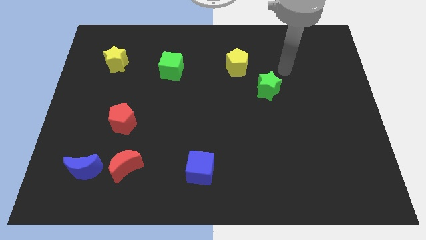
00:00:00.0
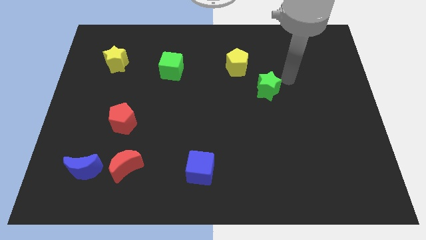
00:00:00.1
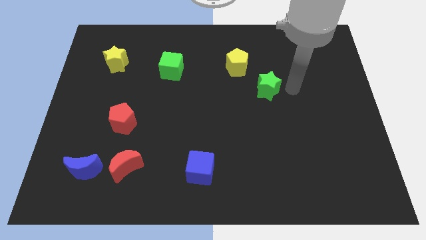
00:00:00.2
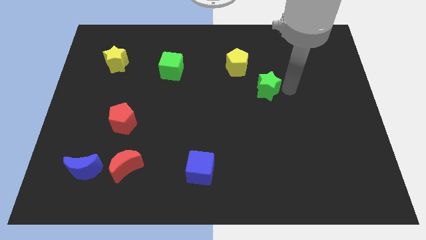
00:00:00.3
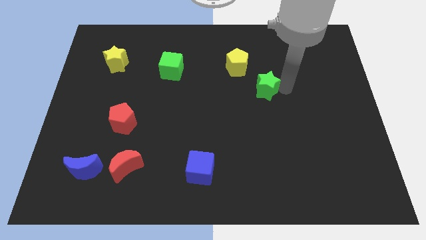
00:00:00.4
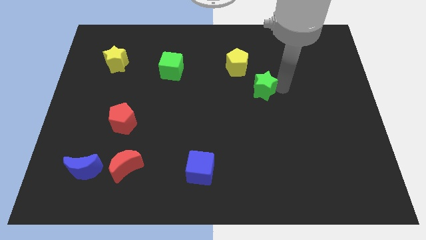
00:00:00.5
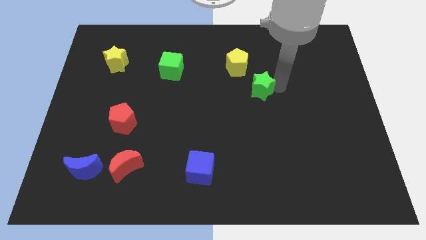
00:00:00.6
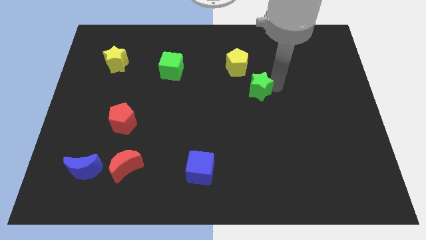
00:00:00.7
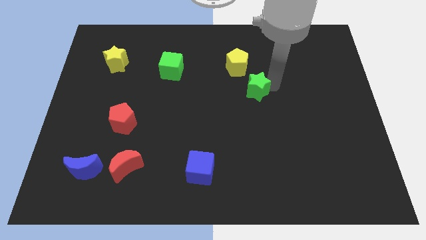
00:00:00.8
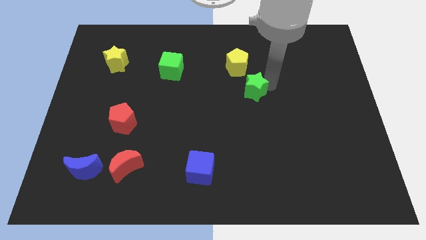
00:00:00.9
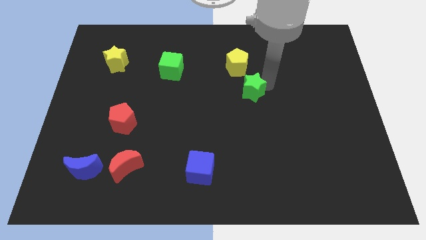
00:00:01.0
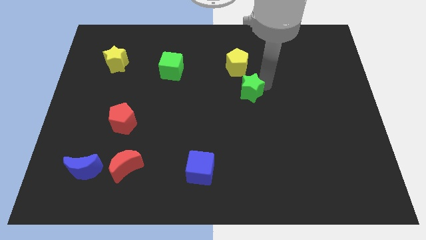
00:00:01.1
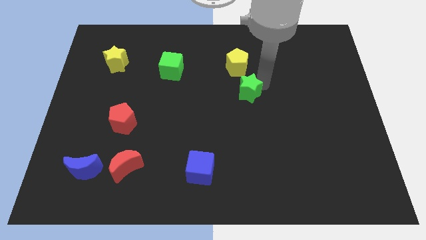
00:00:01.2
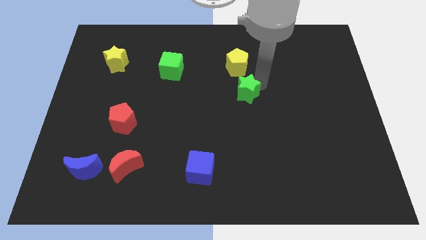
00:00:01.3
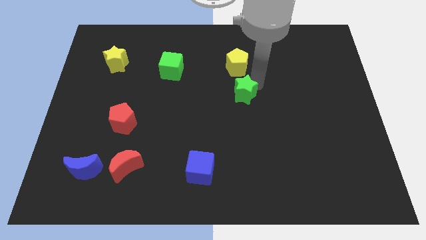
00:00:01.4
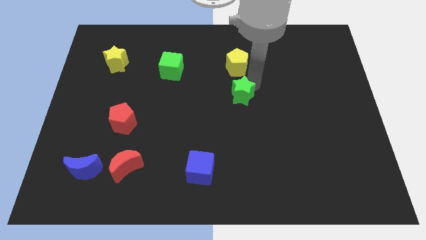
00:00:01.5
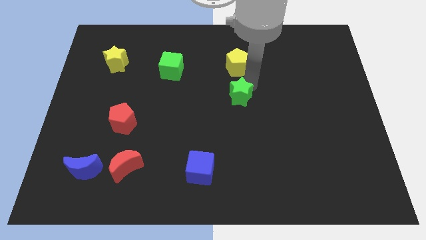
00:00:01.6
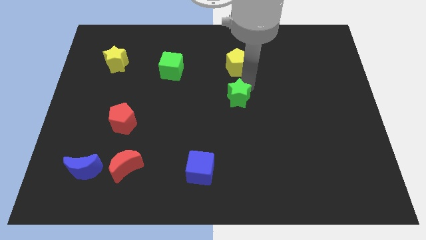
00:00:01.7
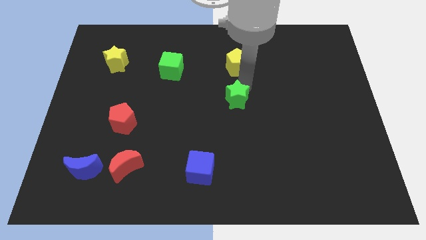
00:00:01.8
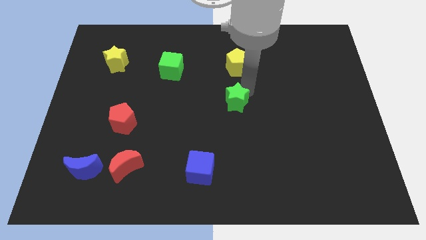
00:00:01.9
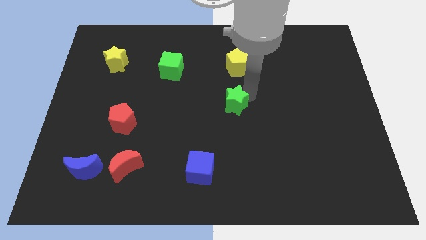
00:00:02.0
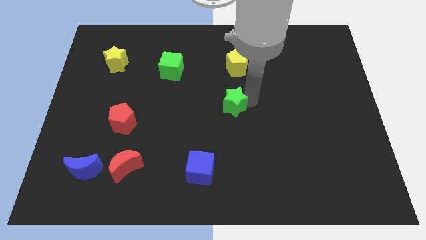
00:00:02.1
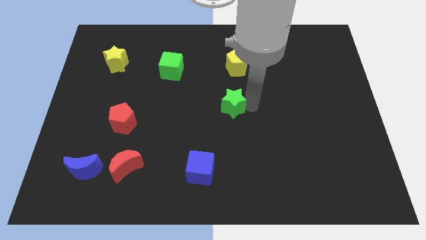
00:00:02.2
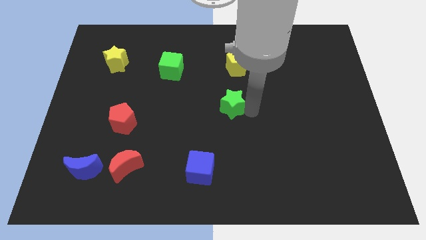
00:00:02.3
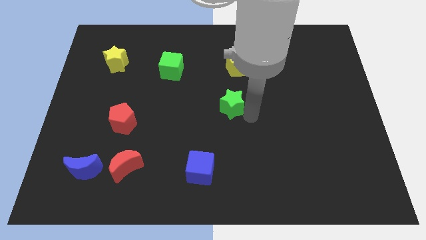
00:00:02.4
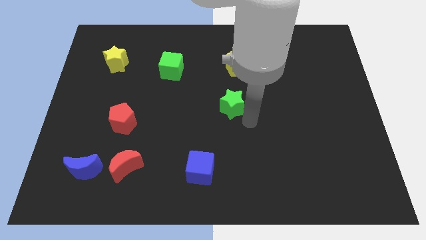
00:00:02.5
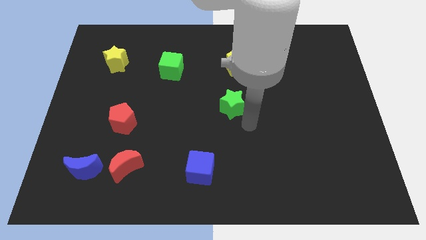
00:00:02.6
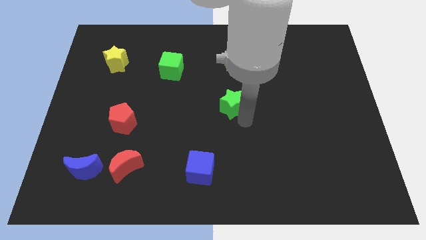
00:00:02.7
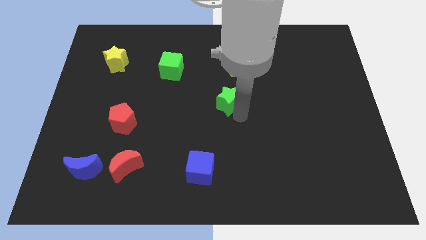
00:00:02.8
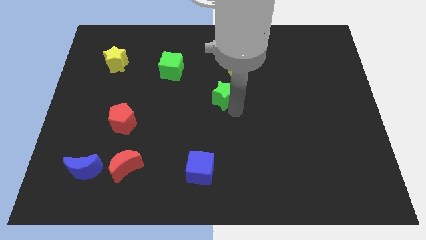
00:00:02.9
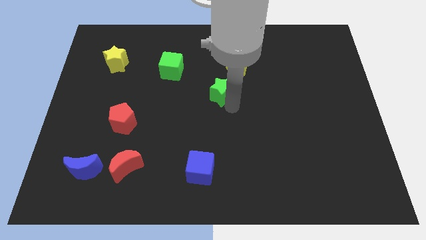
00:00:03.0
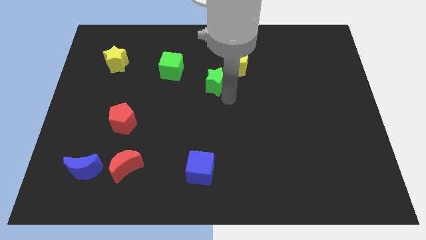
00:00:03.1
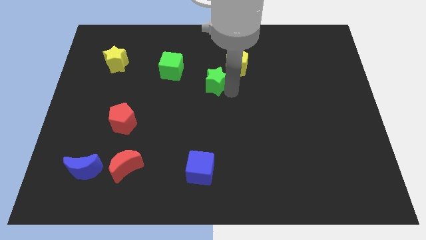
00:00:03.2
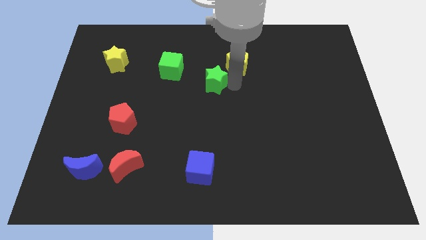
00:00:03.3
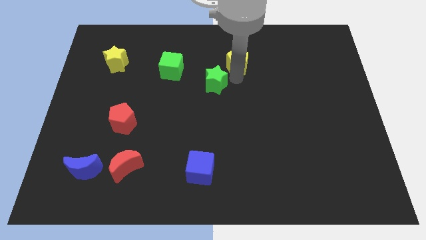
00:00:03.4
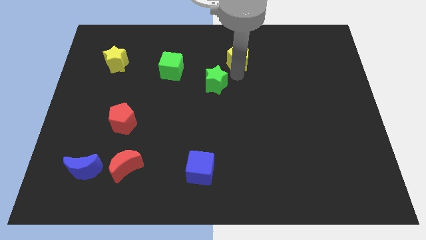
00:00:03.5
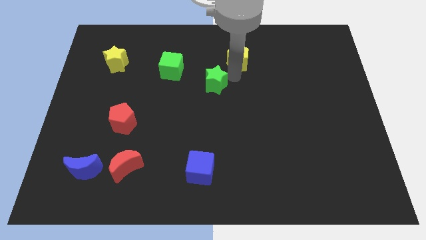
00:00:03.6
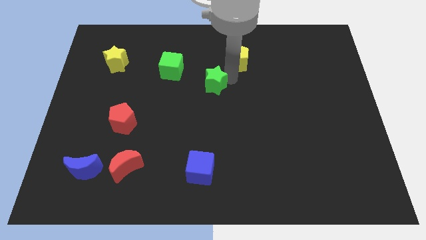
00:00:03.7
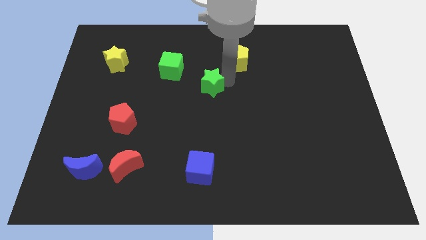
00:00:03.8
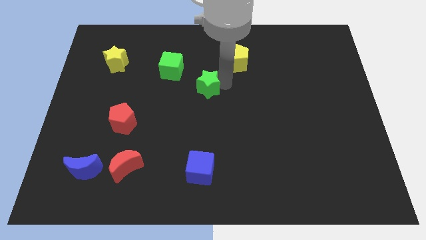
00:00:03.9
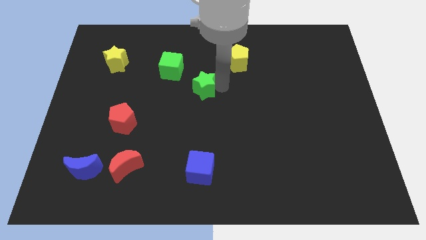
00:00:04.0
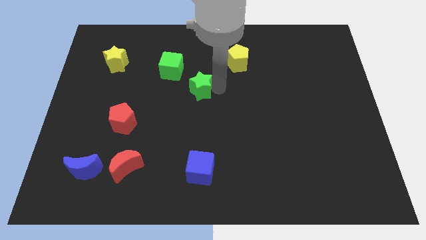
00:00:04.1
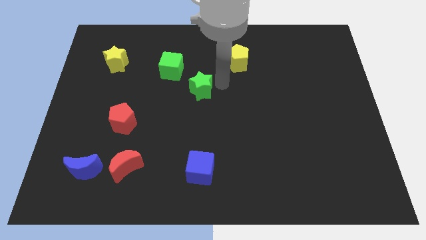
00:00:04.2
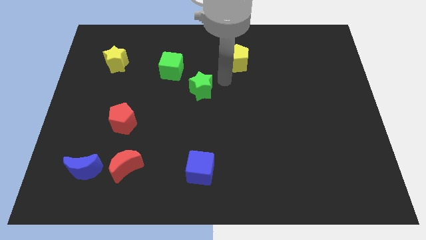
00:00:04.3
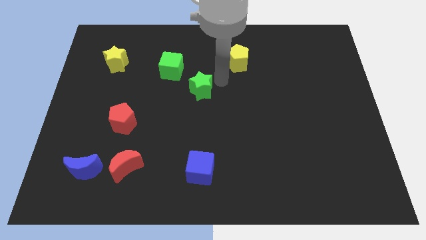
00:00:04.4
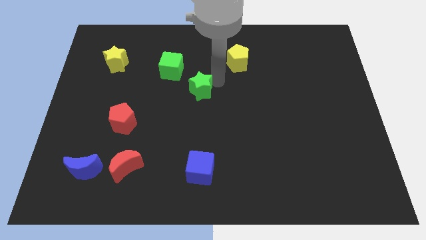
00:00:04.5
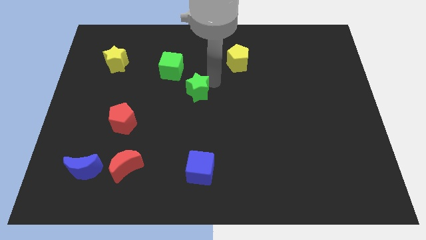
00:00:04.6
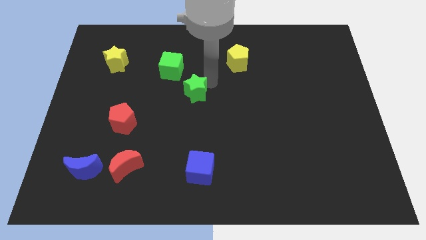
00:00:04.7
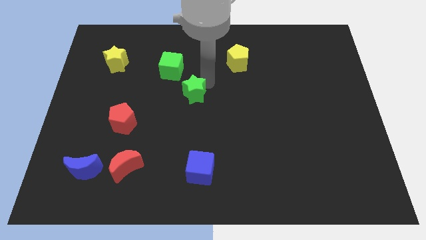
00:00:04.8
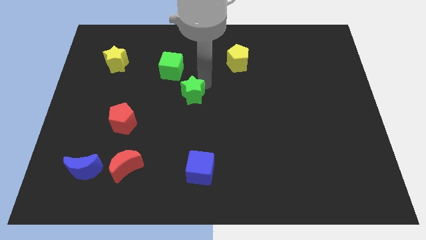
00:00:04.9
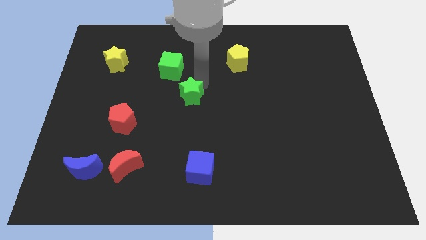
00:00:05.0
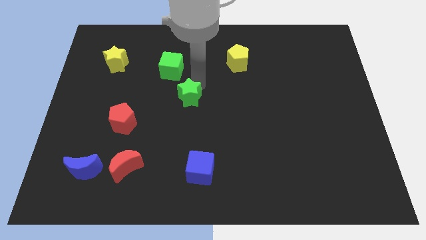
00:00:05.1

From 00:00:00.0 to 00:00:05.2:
slide the green star to the bottom side of the green cube

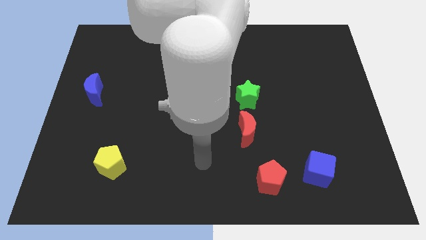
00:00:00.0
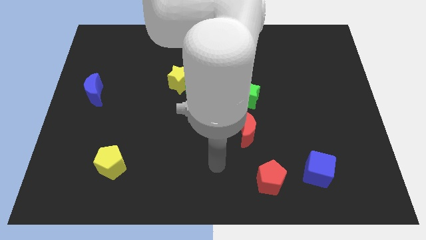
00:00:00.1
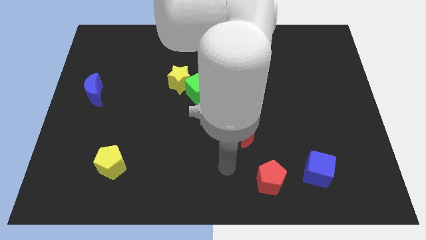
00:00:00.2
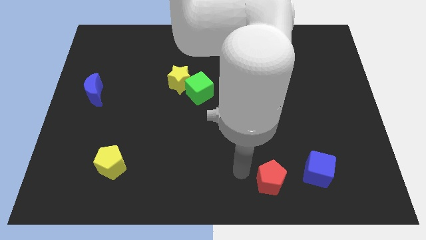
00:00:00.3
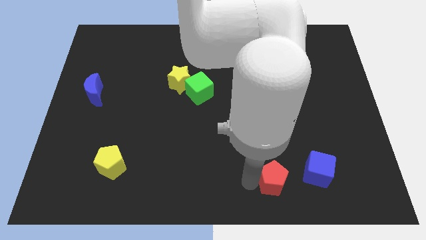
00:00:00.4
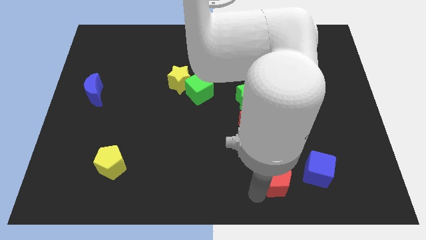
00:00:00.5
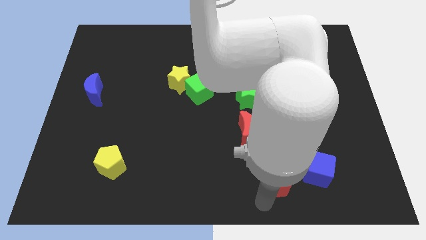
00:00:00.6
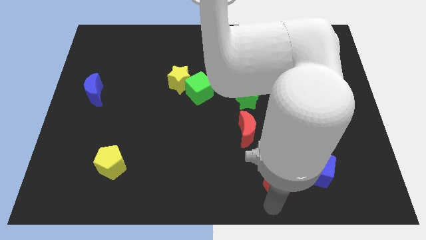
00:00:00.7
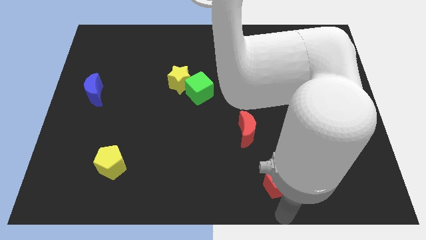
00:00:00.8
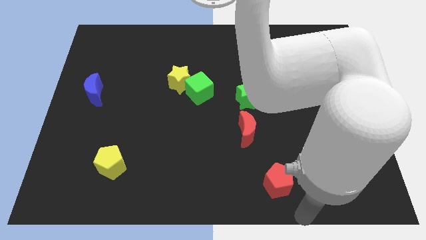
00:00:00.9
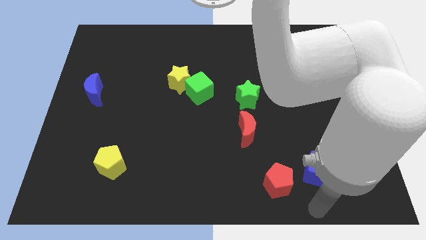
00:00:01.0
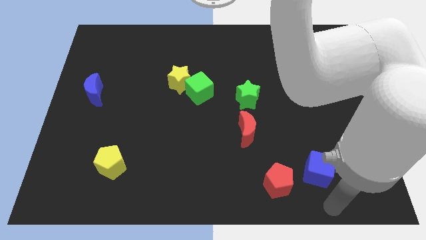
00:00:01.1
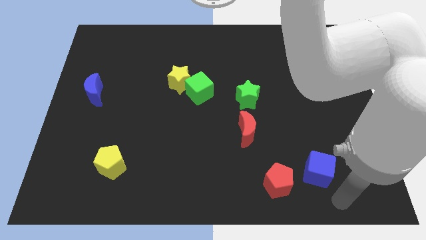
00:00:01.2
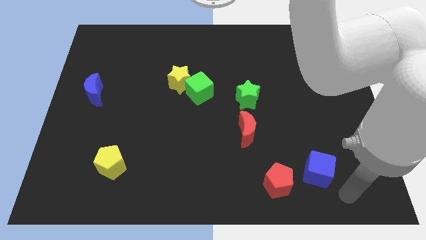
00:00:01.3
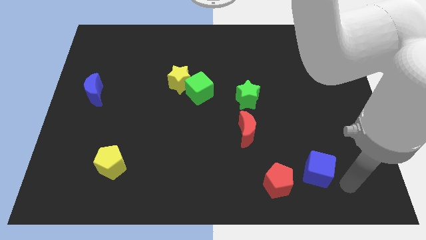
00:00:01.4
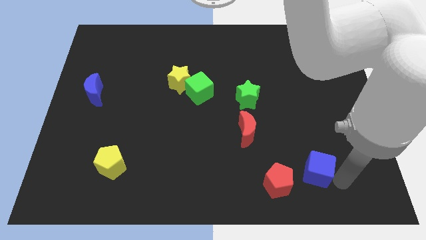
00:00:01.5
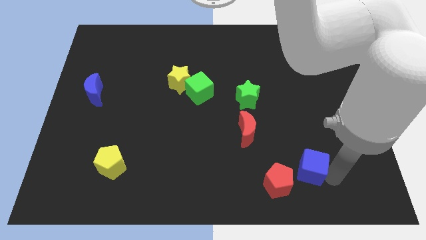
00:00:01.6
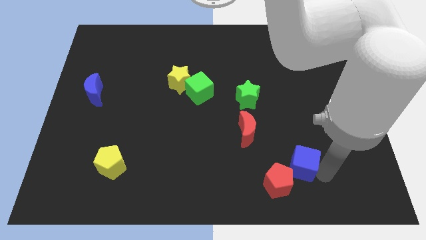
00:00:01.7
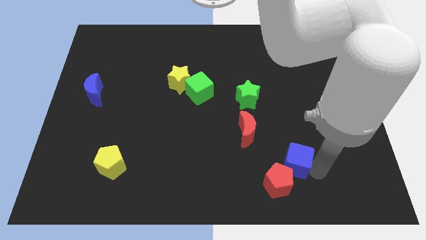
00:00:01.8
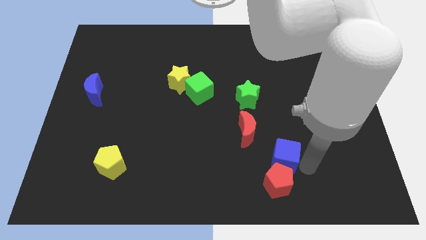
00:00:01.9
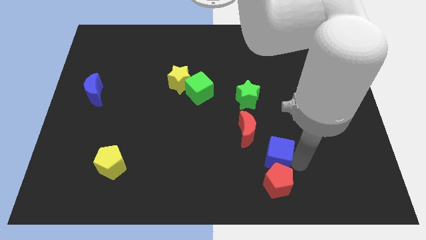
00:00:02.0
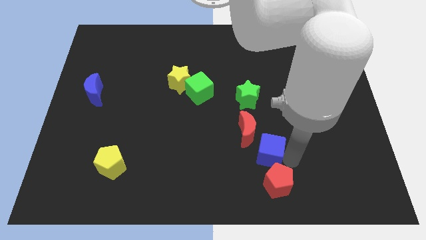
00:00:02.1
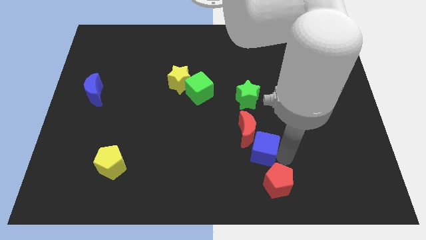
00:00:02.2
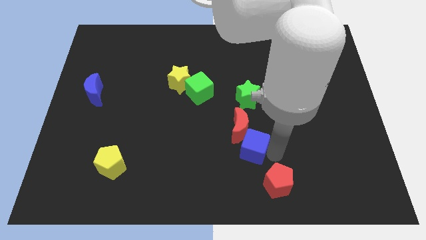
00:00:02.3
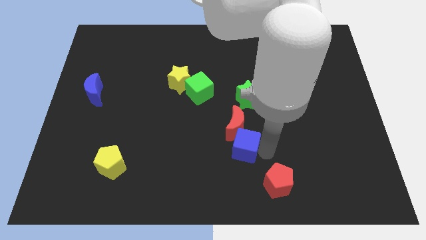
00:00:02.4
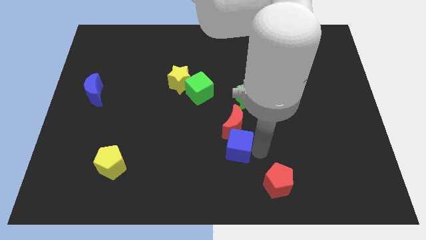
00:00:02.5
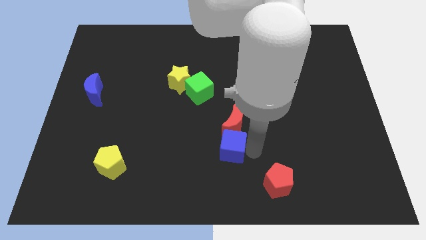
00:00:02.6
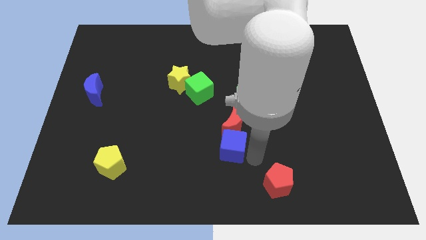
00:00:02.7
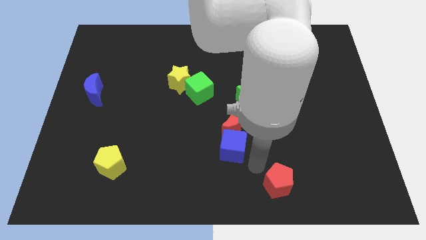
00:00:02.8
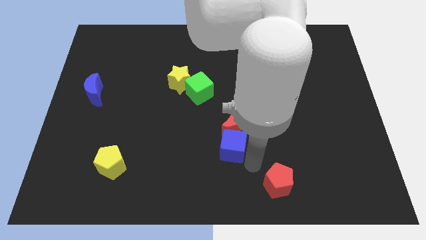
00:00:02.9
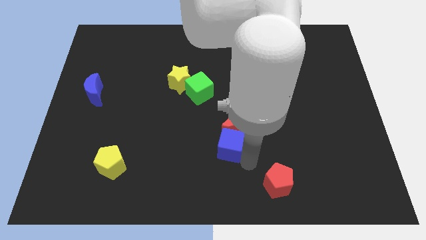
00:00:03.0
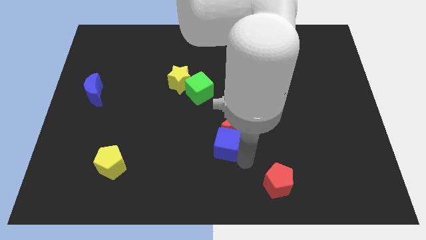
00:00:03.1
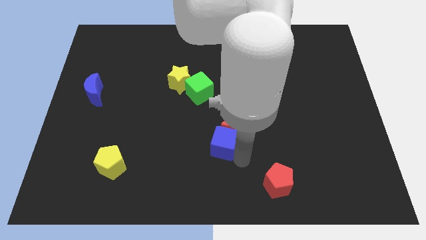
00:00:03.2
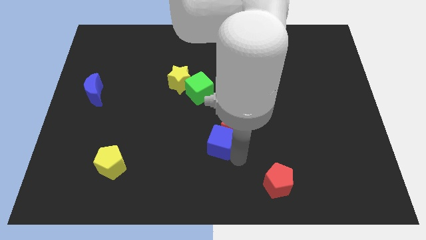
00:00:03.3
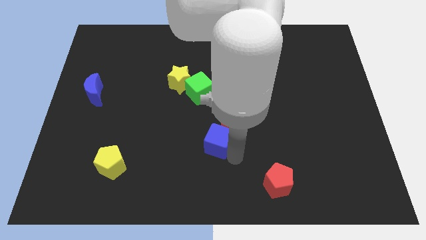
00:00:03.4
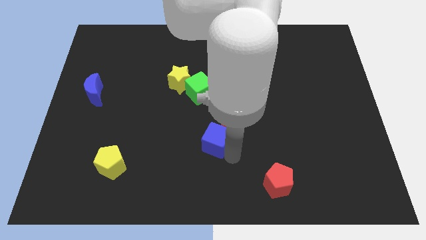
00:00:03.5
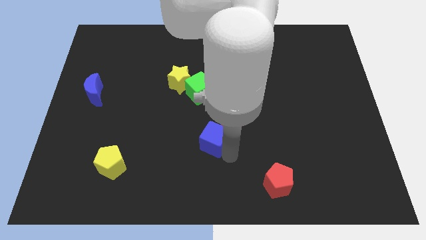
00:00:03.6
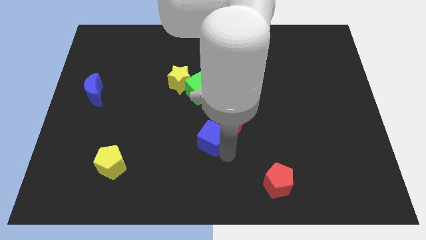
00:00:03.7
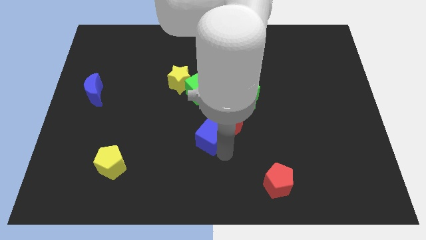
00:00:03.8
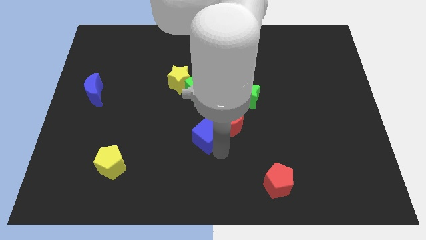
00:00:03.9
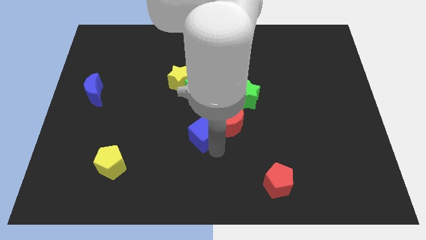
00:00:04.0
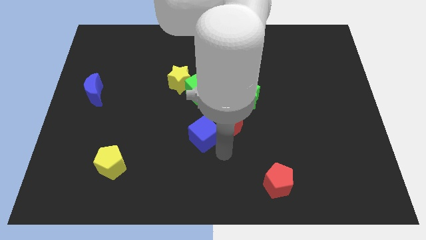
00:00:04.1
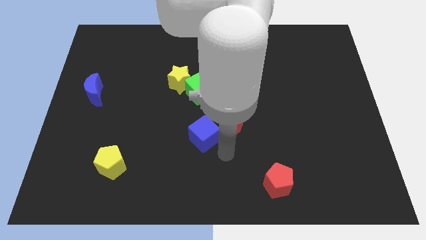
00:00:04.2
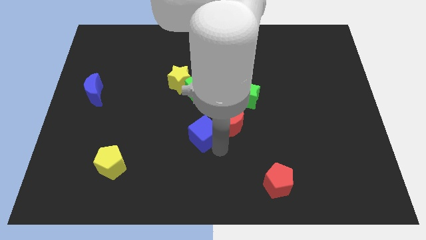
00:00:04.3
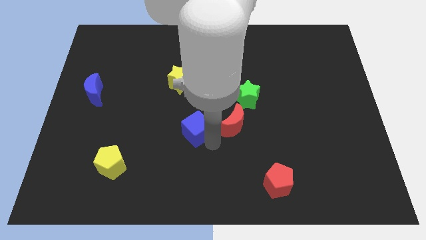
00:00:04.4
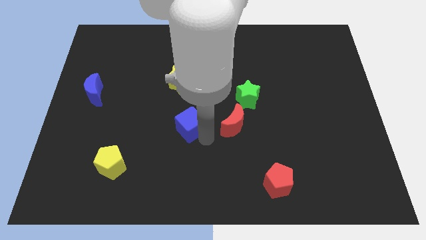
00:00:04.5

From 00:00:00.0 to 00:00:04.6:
slide the blue cube below the yellow star
